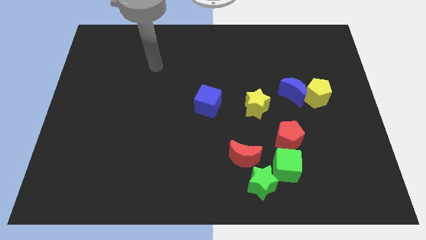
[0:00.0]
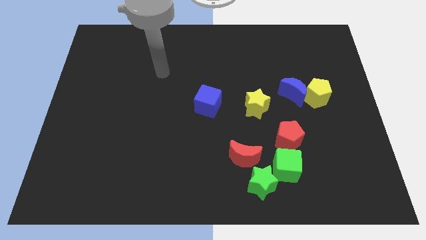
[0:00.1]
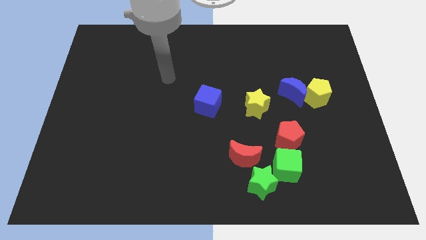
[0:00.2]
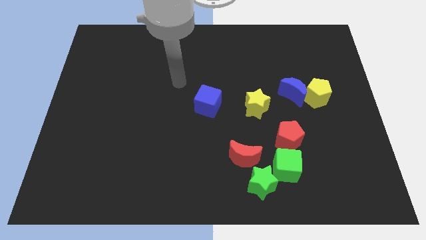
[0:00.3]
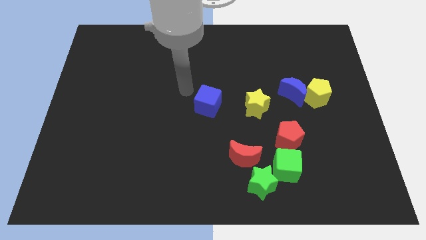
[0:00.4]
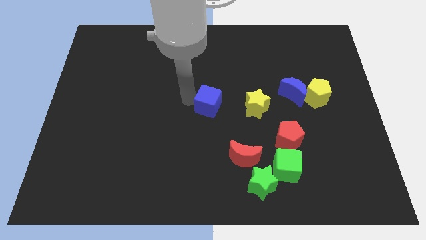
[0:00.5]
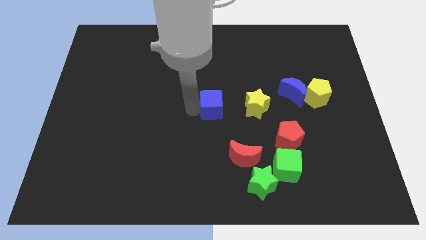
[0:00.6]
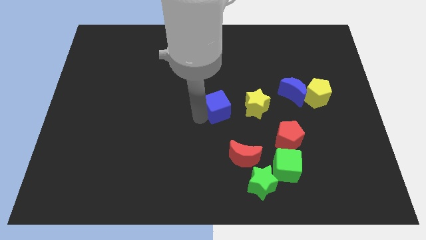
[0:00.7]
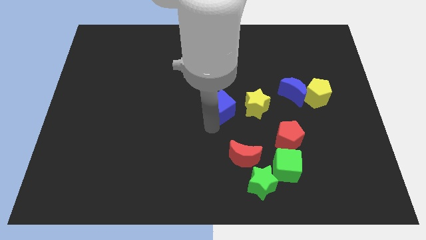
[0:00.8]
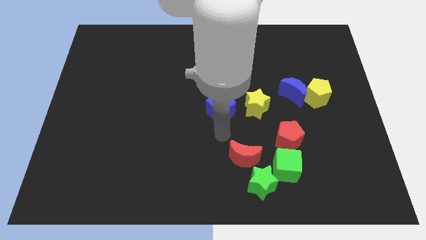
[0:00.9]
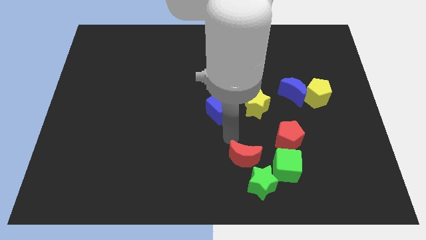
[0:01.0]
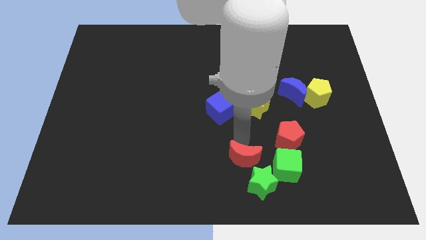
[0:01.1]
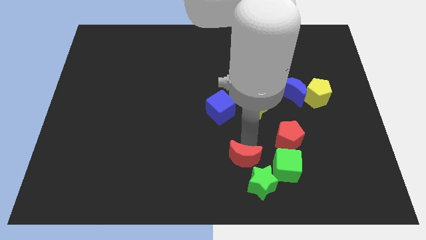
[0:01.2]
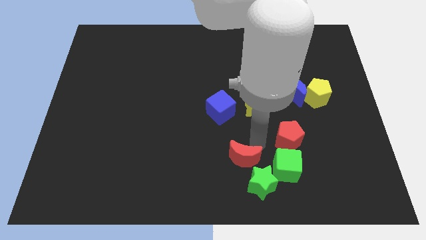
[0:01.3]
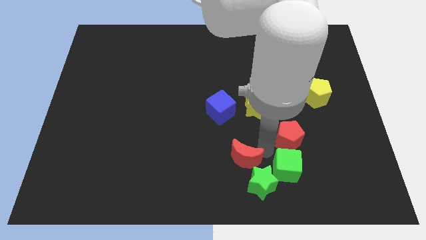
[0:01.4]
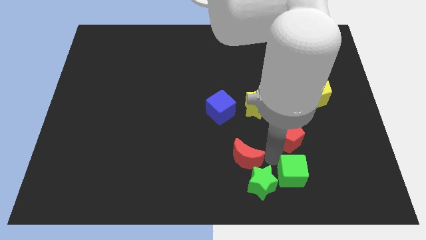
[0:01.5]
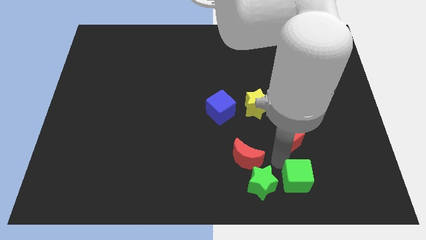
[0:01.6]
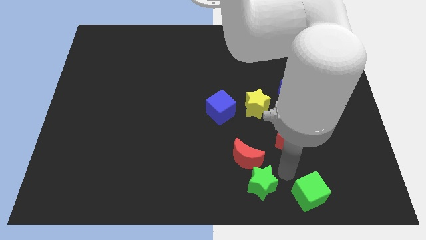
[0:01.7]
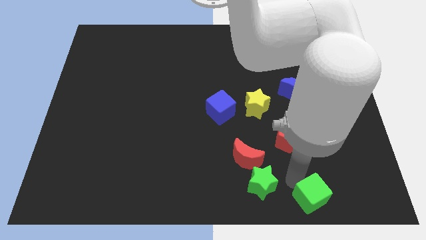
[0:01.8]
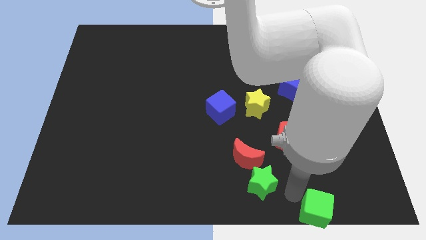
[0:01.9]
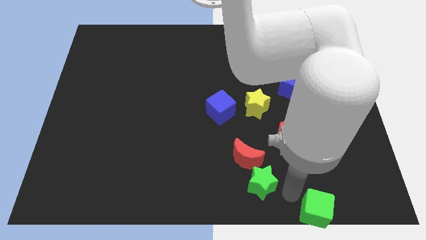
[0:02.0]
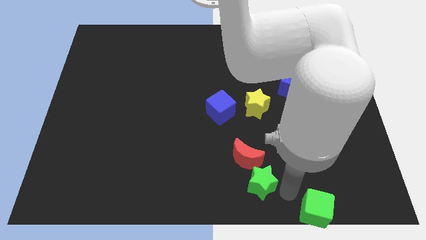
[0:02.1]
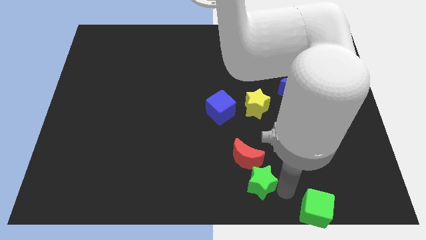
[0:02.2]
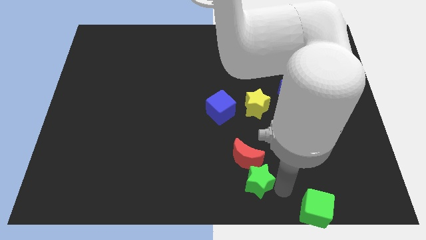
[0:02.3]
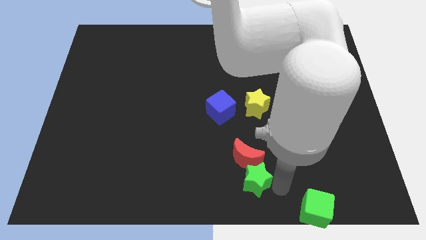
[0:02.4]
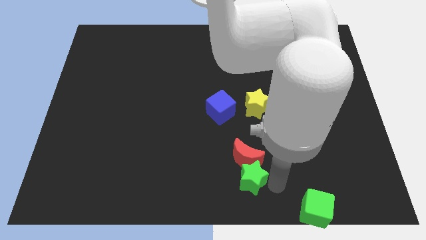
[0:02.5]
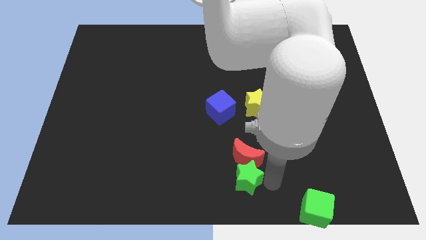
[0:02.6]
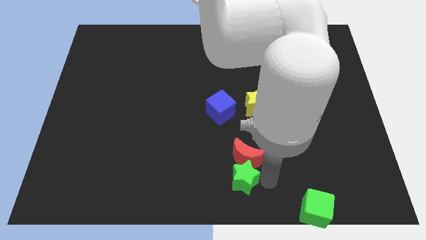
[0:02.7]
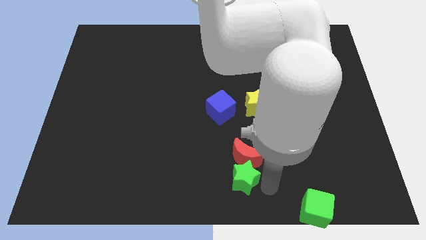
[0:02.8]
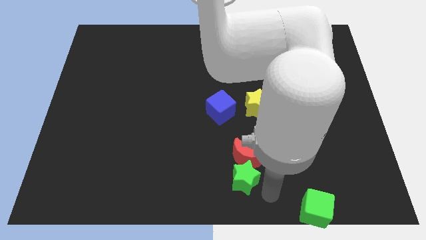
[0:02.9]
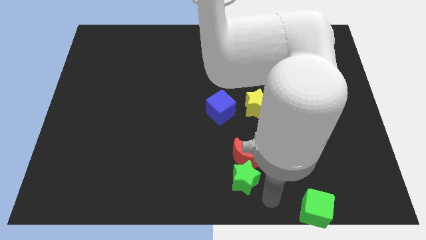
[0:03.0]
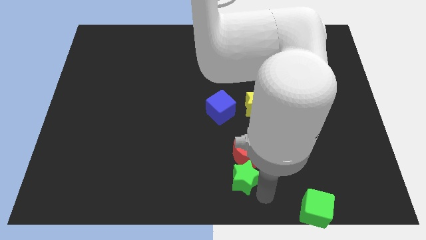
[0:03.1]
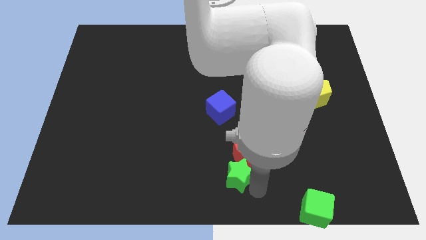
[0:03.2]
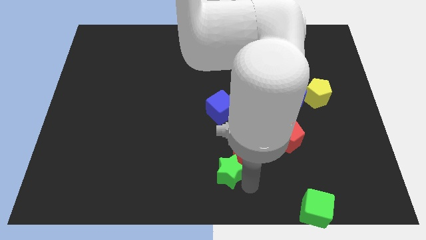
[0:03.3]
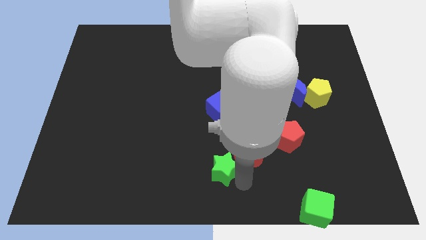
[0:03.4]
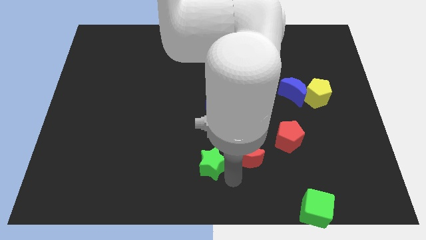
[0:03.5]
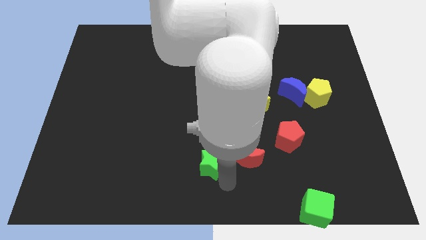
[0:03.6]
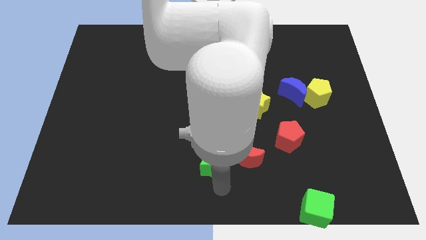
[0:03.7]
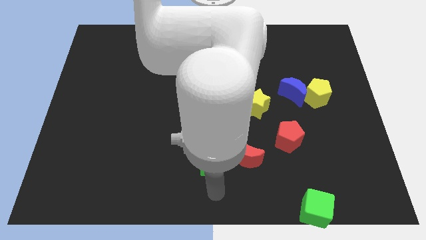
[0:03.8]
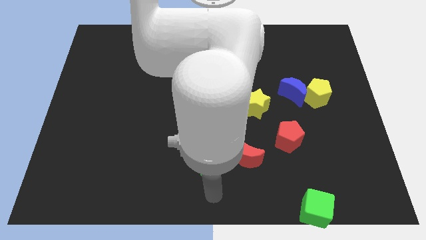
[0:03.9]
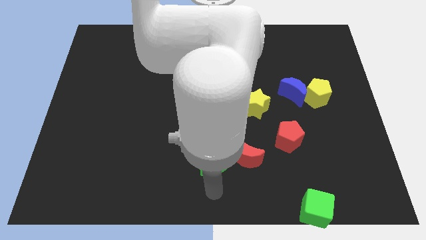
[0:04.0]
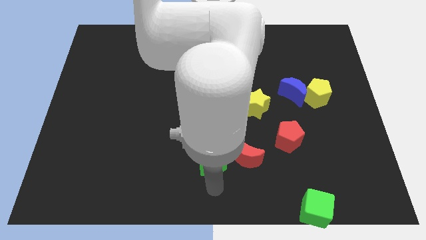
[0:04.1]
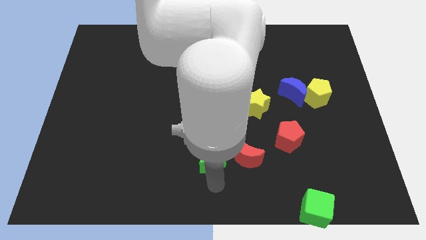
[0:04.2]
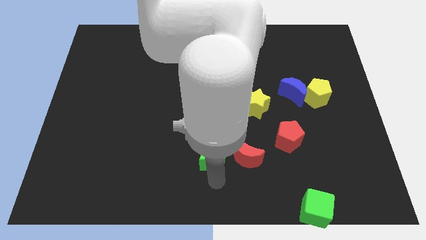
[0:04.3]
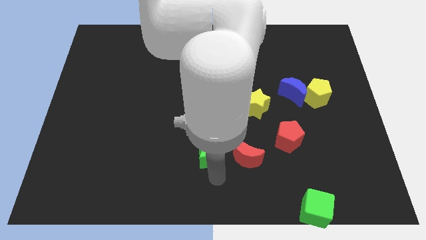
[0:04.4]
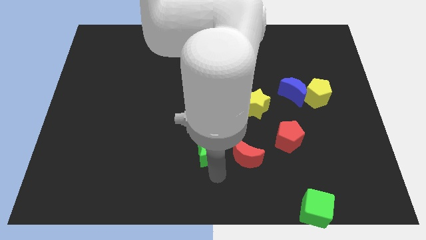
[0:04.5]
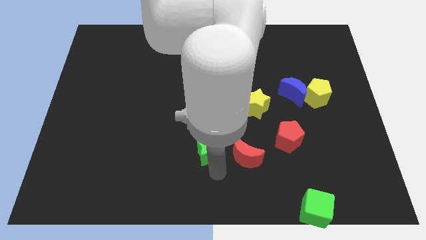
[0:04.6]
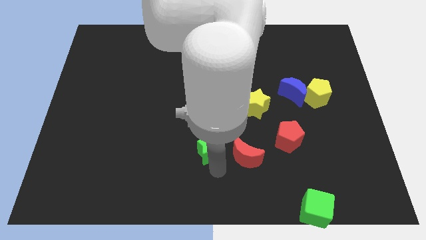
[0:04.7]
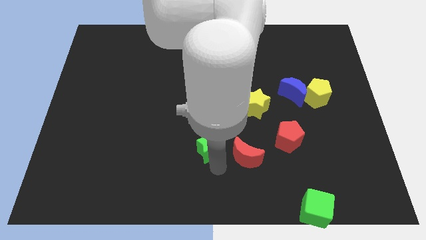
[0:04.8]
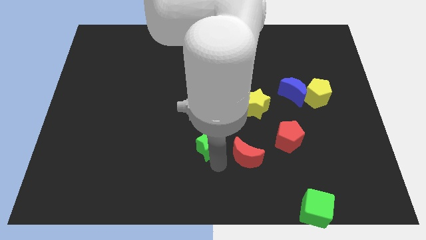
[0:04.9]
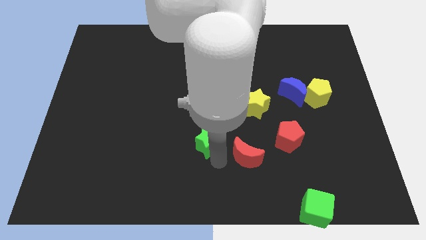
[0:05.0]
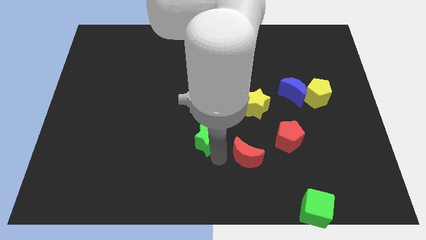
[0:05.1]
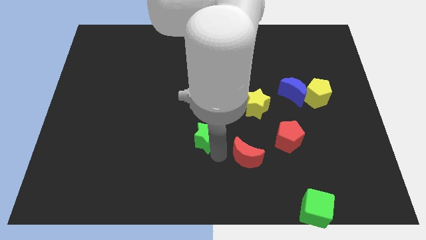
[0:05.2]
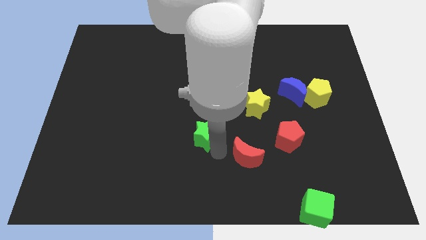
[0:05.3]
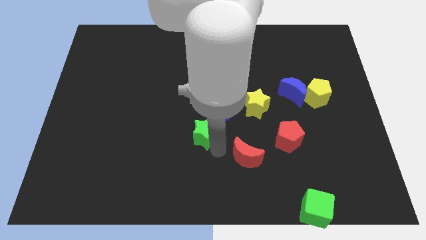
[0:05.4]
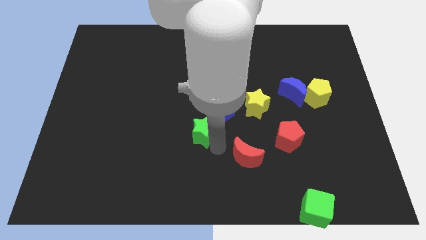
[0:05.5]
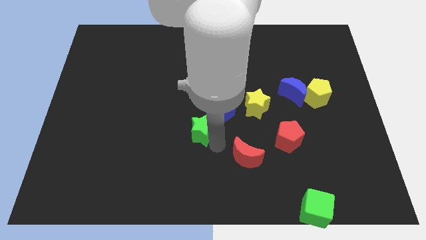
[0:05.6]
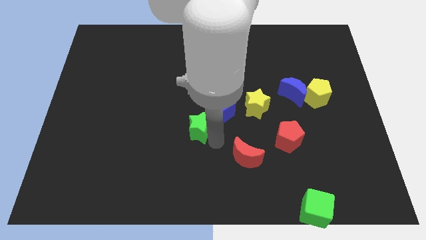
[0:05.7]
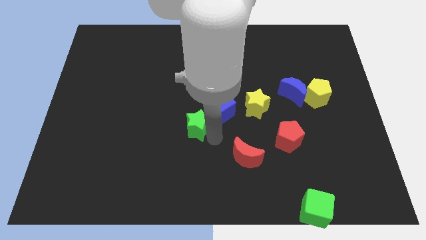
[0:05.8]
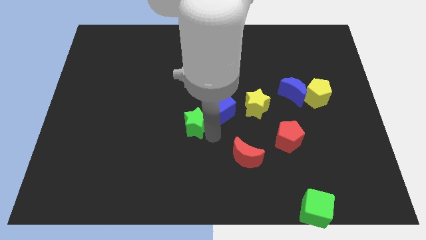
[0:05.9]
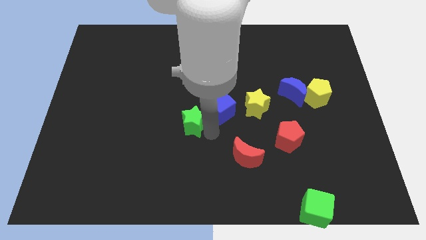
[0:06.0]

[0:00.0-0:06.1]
slide the green star diagonally up and left

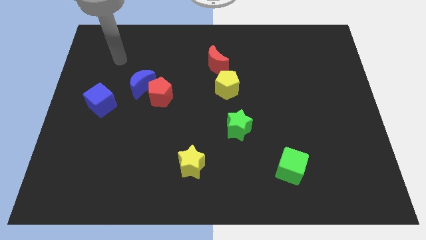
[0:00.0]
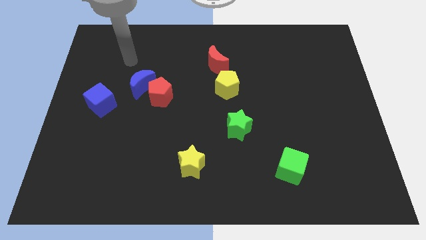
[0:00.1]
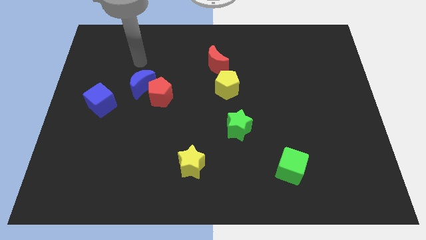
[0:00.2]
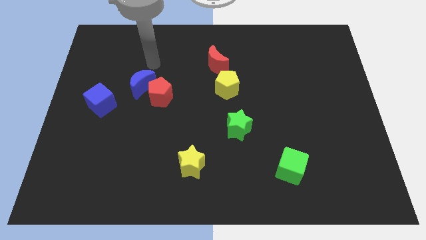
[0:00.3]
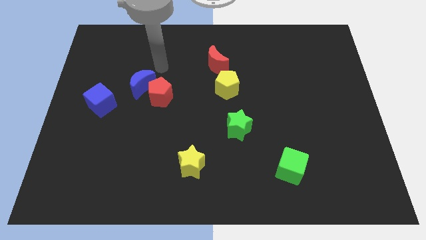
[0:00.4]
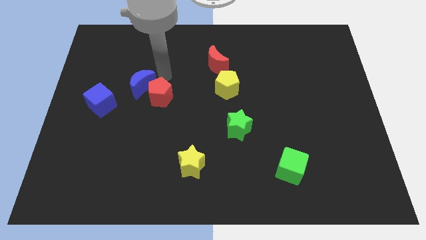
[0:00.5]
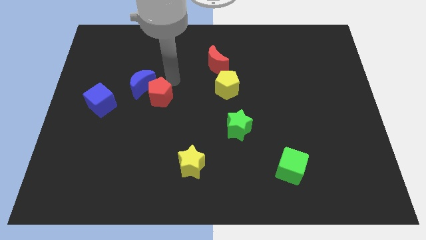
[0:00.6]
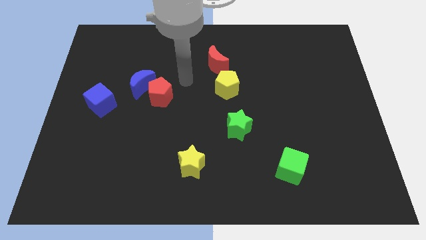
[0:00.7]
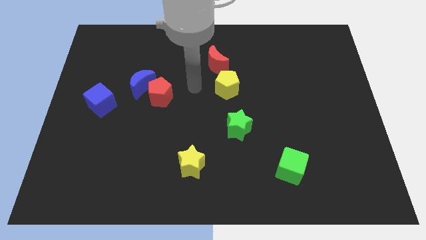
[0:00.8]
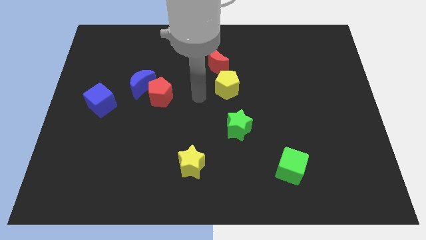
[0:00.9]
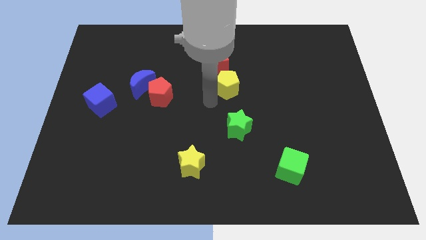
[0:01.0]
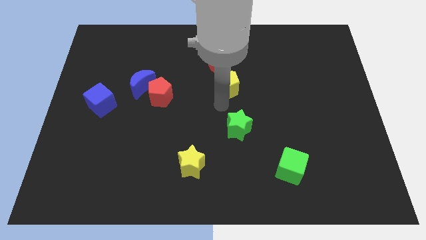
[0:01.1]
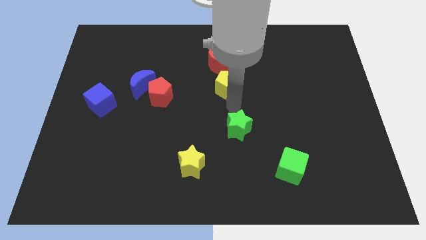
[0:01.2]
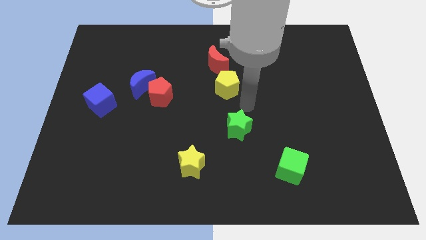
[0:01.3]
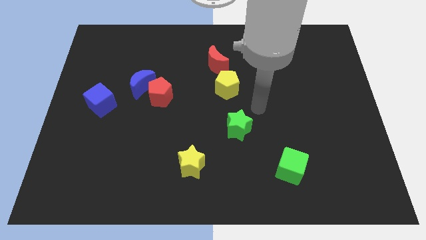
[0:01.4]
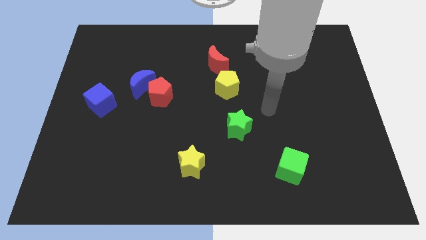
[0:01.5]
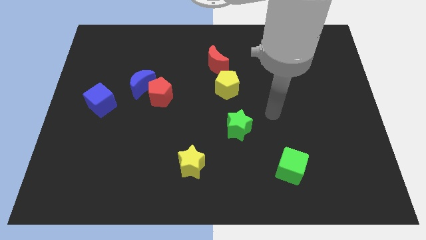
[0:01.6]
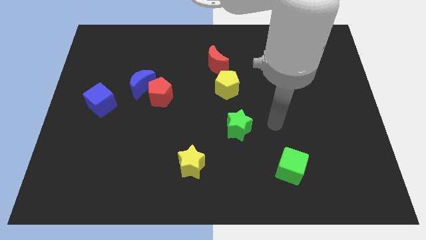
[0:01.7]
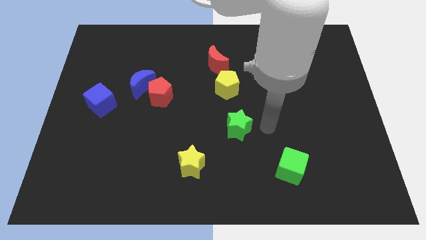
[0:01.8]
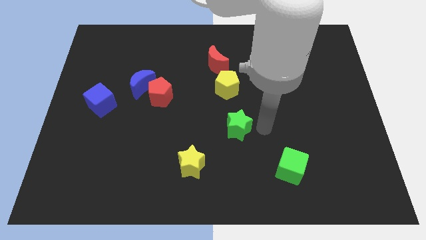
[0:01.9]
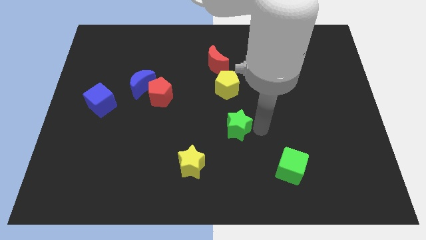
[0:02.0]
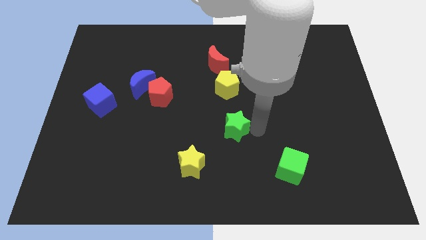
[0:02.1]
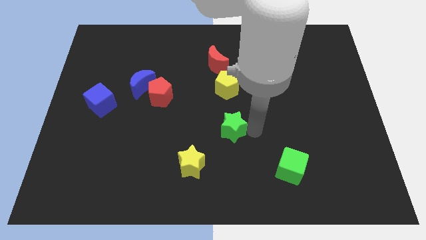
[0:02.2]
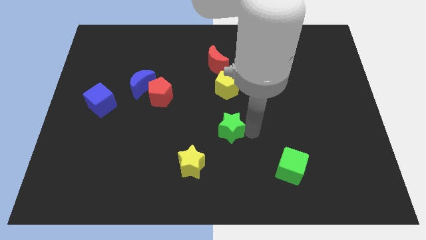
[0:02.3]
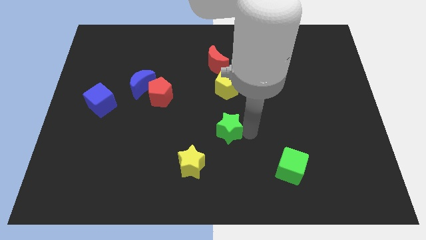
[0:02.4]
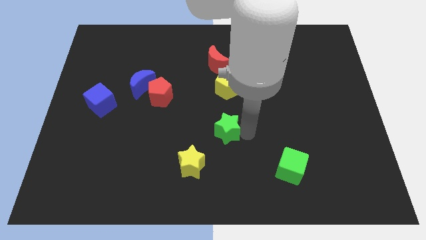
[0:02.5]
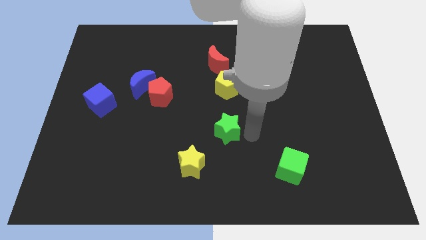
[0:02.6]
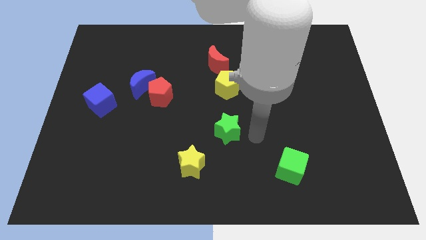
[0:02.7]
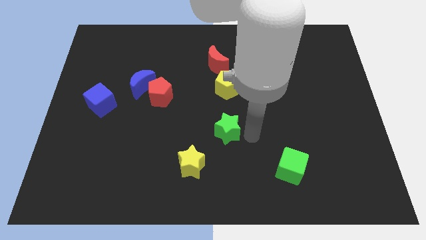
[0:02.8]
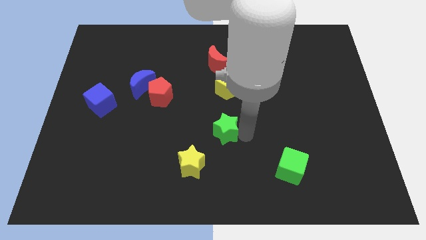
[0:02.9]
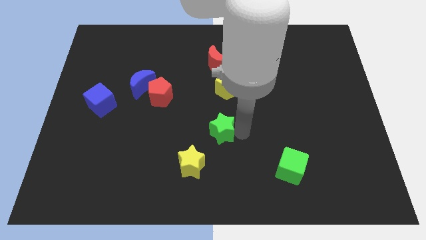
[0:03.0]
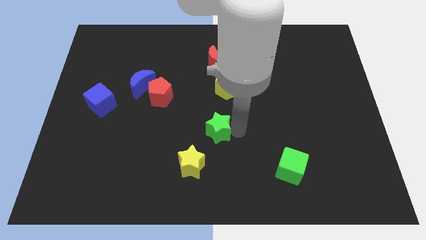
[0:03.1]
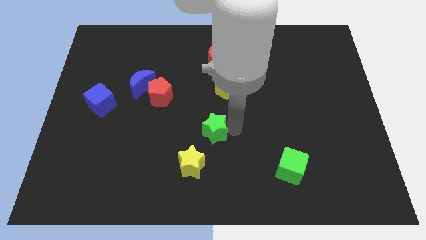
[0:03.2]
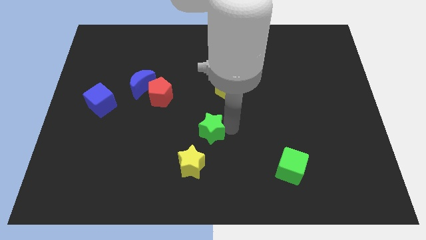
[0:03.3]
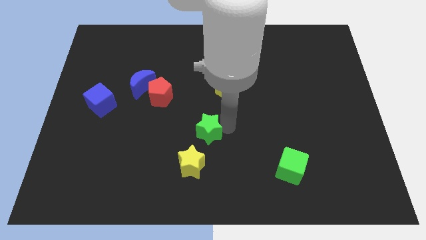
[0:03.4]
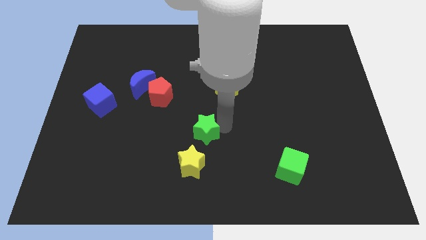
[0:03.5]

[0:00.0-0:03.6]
slide the green star left somewhat
